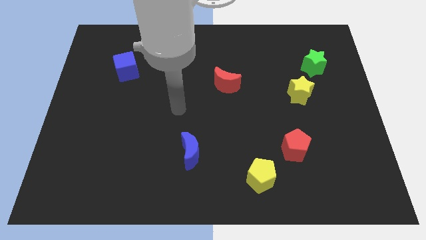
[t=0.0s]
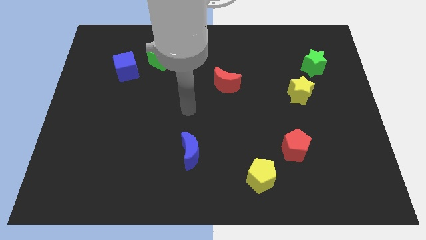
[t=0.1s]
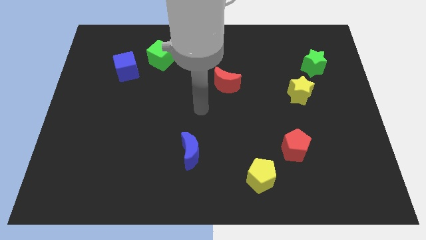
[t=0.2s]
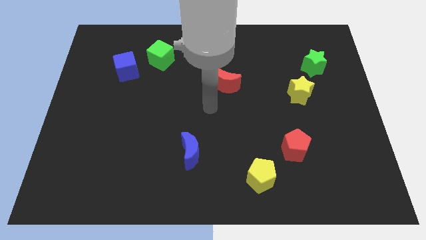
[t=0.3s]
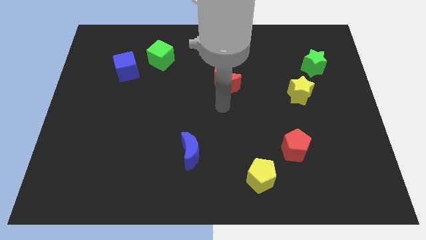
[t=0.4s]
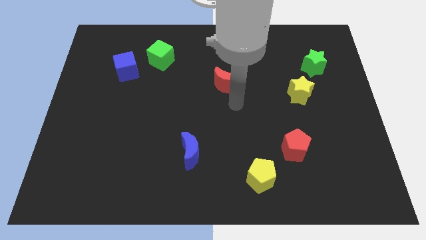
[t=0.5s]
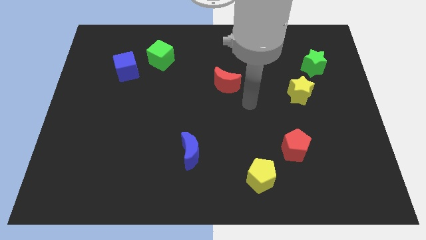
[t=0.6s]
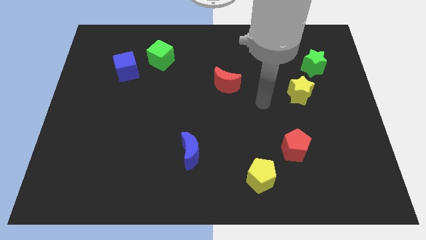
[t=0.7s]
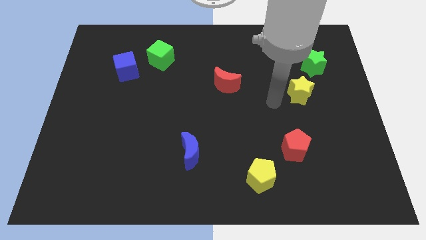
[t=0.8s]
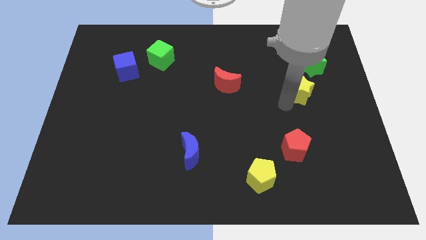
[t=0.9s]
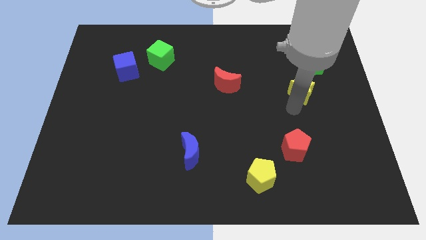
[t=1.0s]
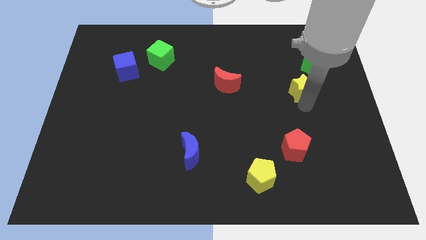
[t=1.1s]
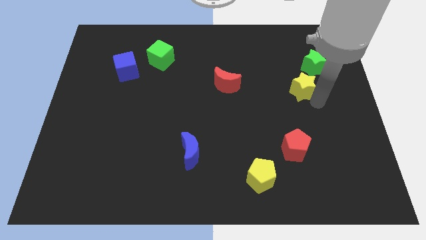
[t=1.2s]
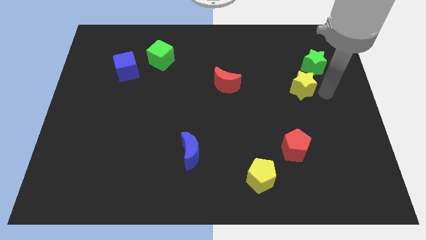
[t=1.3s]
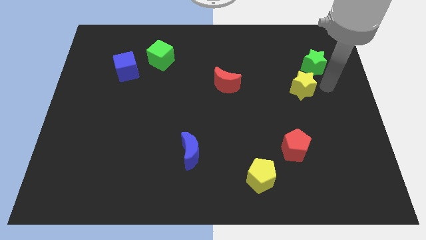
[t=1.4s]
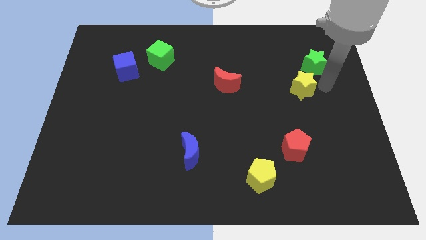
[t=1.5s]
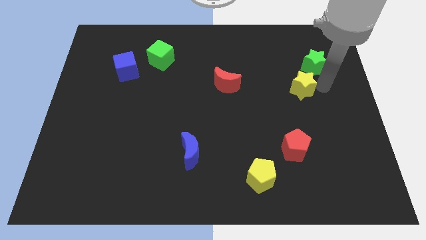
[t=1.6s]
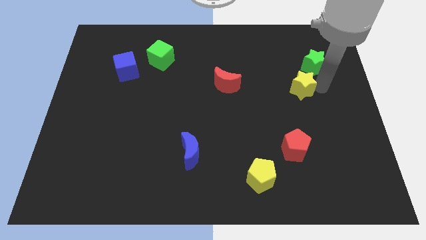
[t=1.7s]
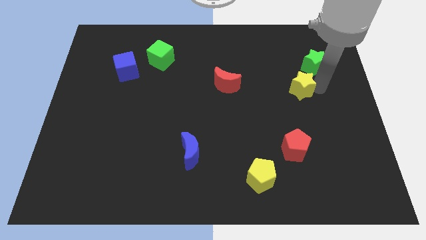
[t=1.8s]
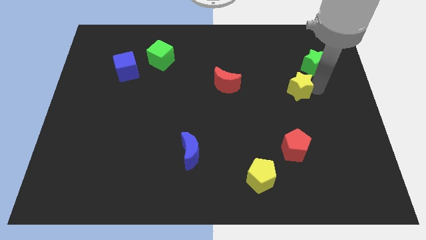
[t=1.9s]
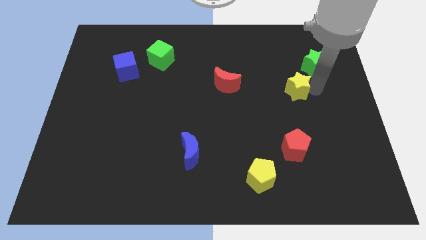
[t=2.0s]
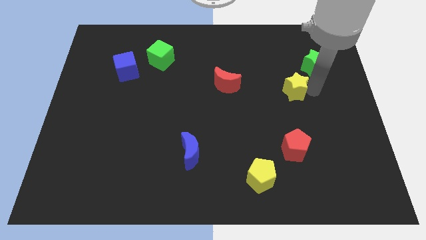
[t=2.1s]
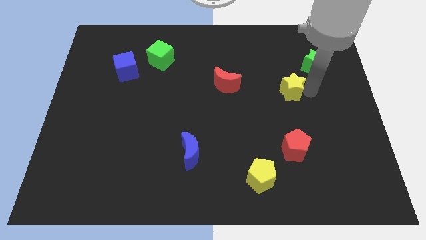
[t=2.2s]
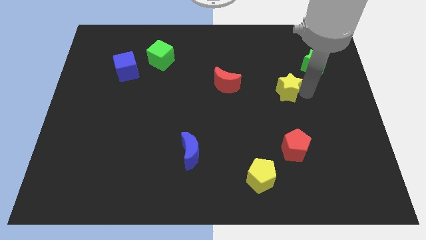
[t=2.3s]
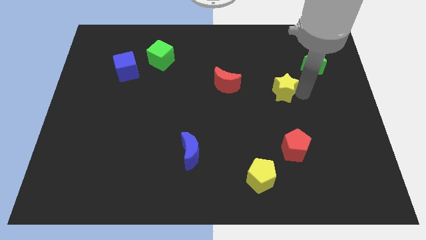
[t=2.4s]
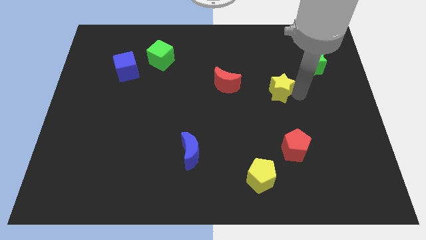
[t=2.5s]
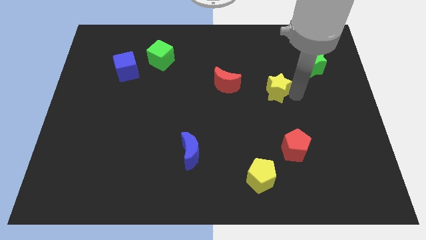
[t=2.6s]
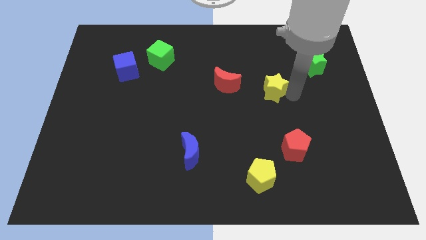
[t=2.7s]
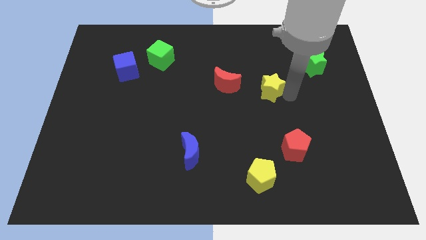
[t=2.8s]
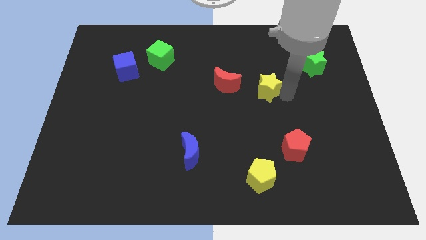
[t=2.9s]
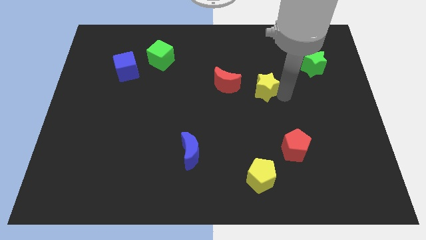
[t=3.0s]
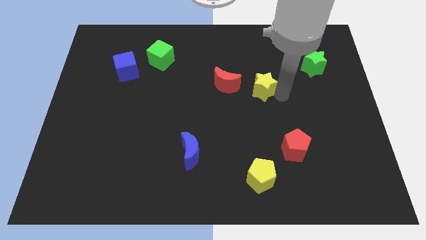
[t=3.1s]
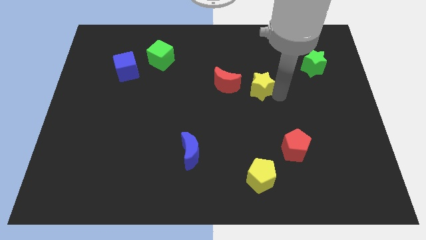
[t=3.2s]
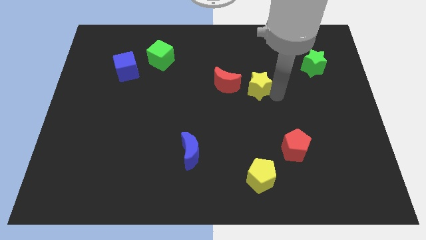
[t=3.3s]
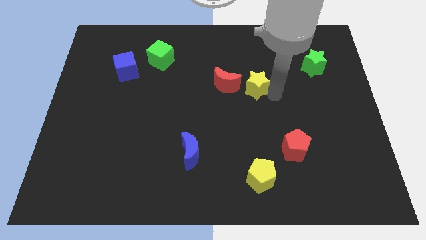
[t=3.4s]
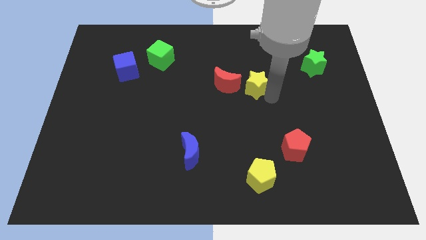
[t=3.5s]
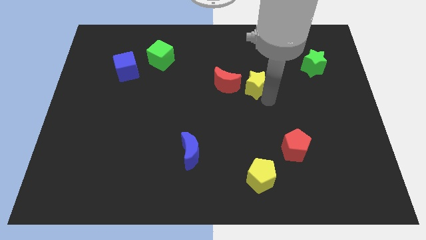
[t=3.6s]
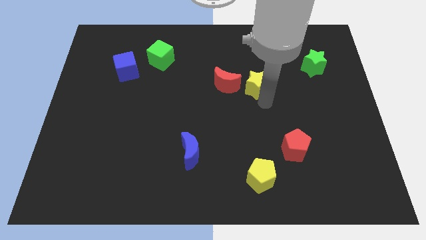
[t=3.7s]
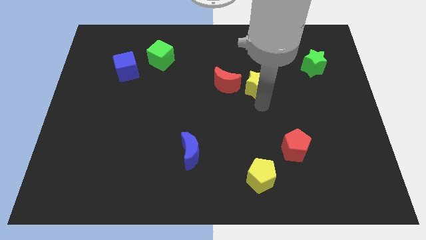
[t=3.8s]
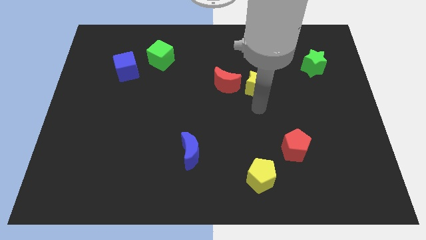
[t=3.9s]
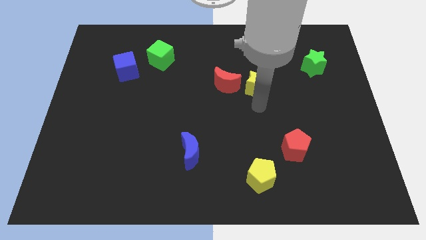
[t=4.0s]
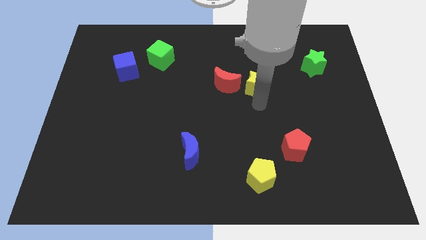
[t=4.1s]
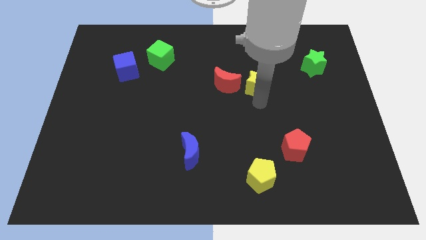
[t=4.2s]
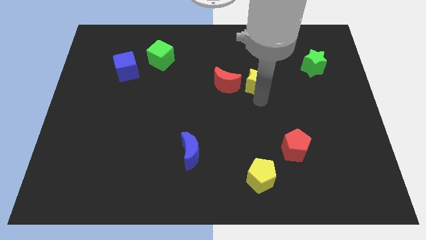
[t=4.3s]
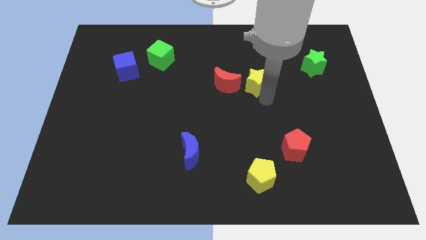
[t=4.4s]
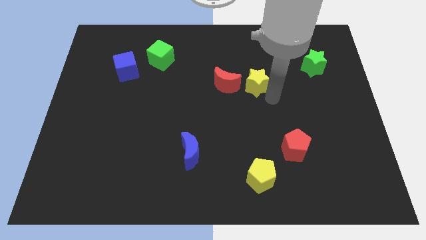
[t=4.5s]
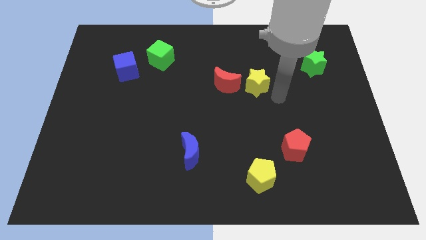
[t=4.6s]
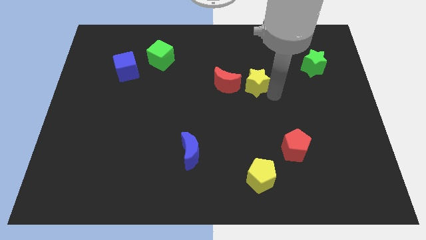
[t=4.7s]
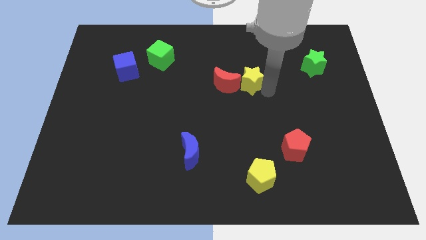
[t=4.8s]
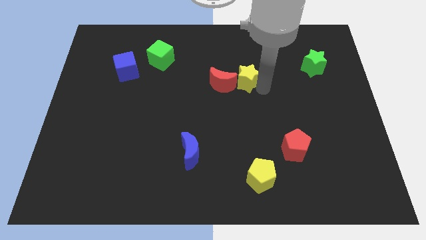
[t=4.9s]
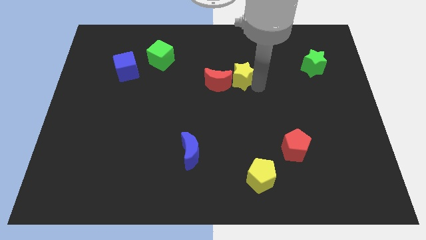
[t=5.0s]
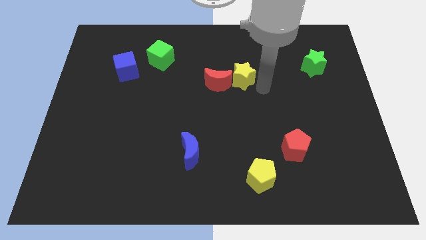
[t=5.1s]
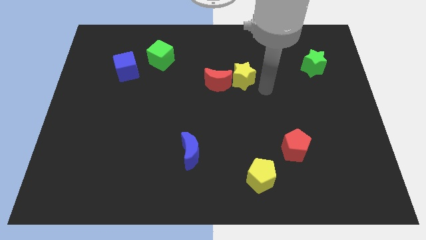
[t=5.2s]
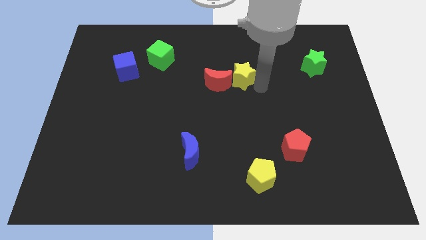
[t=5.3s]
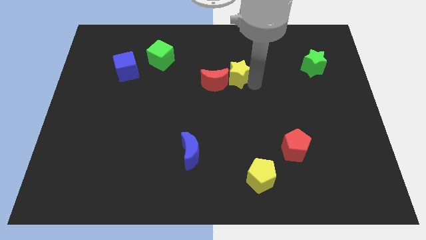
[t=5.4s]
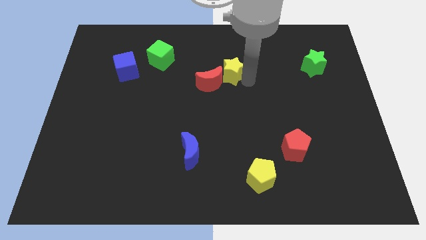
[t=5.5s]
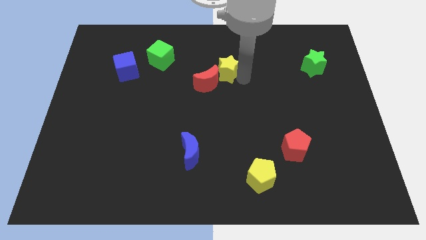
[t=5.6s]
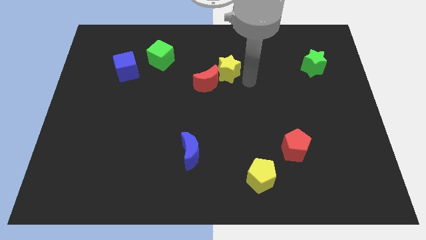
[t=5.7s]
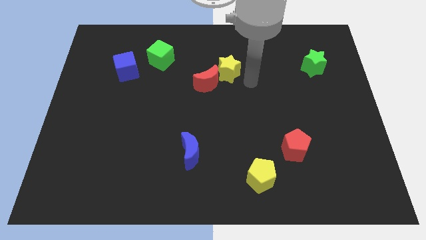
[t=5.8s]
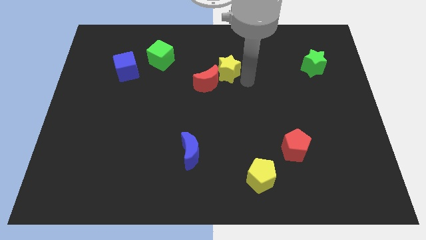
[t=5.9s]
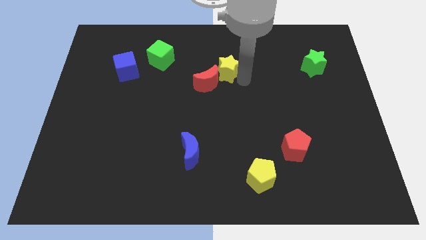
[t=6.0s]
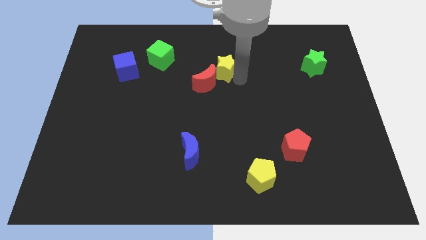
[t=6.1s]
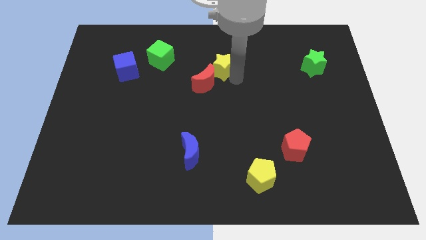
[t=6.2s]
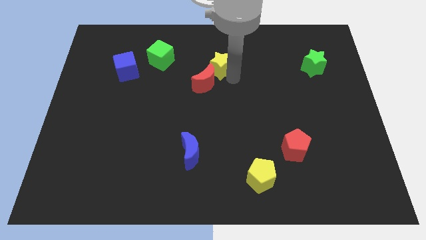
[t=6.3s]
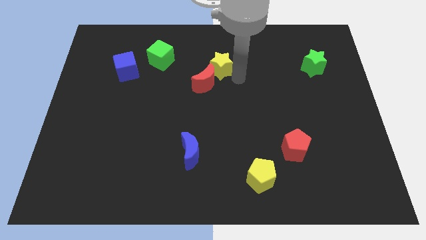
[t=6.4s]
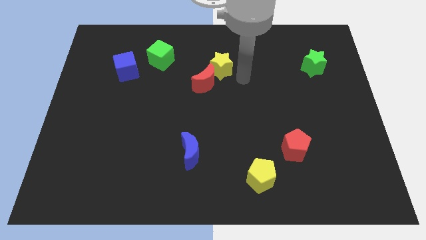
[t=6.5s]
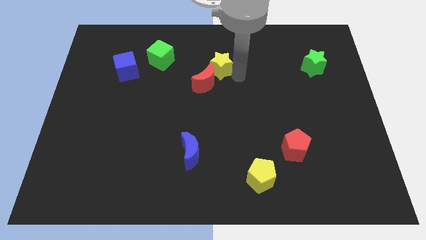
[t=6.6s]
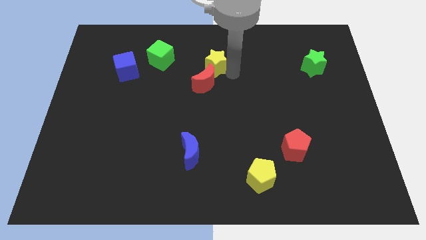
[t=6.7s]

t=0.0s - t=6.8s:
push the yellow star just right of the green cube

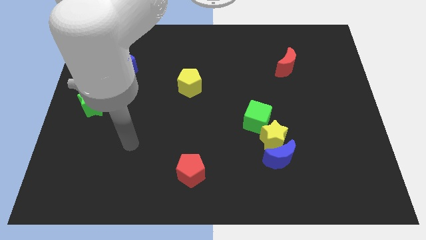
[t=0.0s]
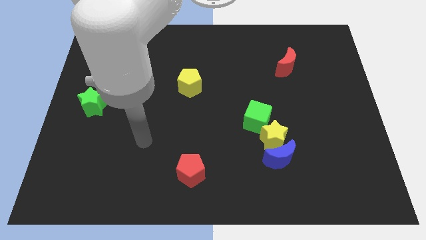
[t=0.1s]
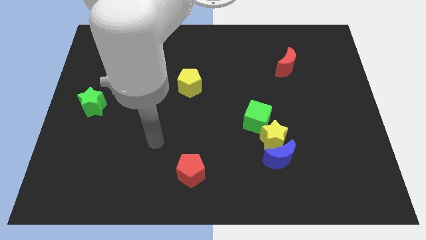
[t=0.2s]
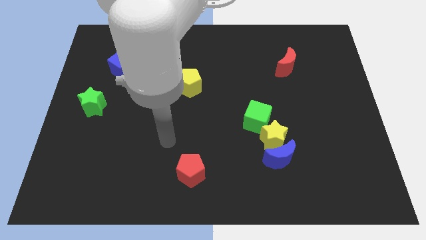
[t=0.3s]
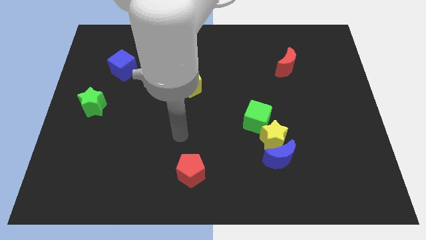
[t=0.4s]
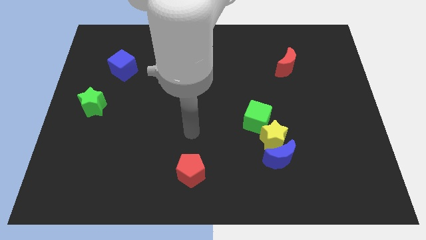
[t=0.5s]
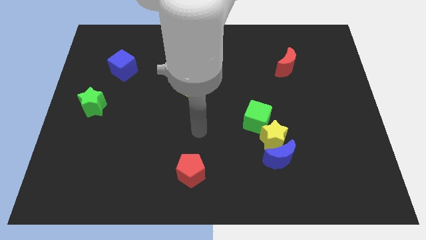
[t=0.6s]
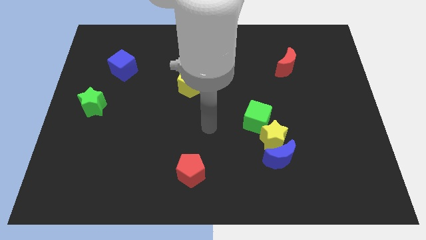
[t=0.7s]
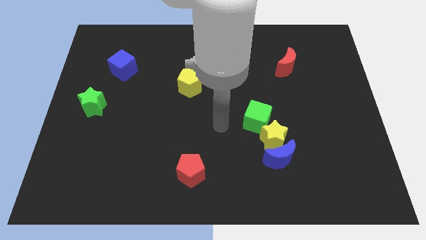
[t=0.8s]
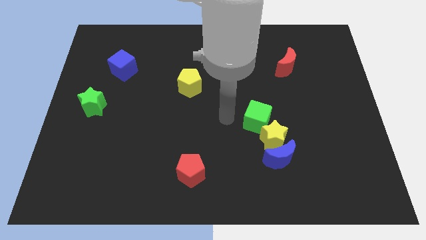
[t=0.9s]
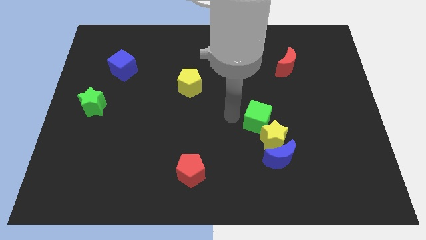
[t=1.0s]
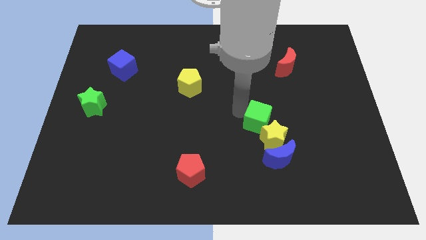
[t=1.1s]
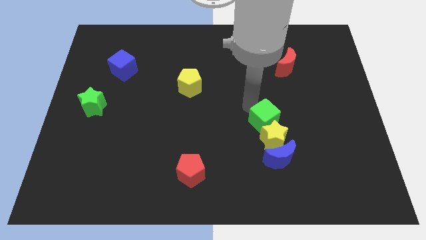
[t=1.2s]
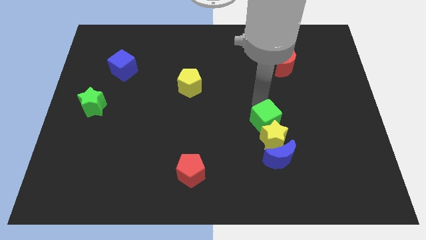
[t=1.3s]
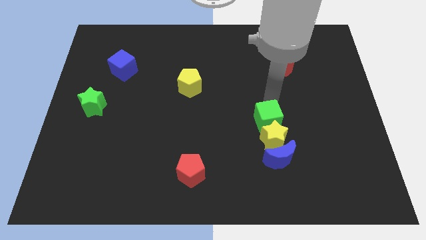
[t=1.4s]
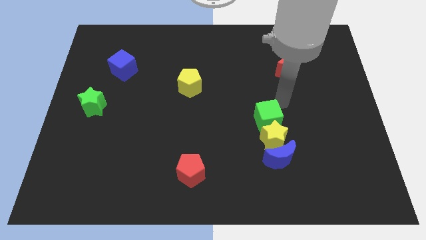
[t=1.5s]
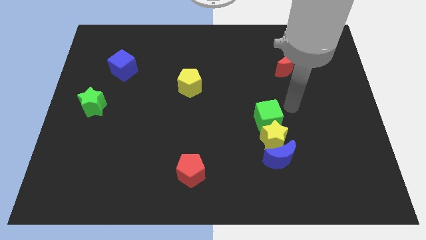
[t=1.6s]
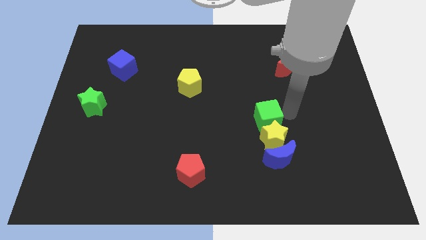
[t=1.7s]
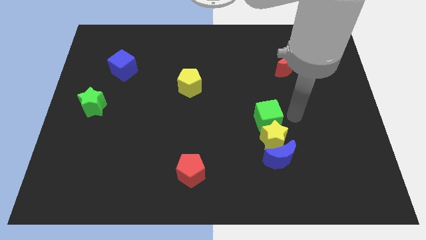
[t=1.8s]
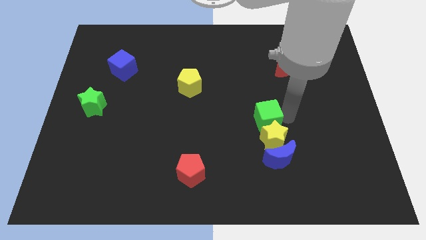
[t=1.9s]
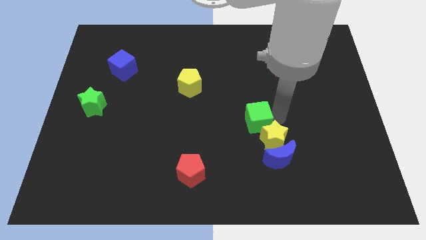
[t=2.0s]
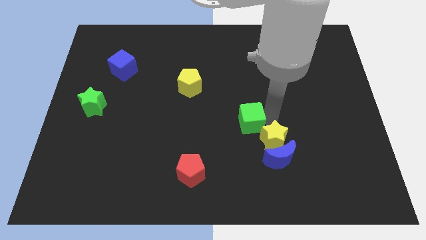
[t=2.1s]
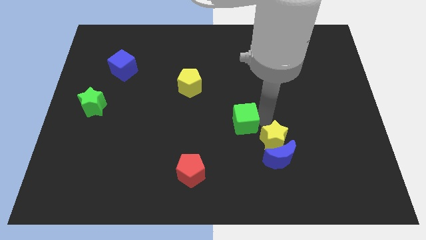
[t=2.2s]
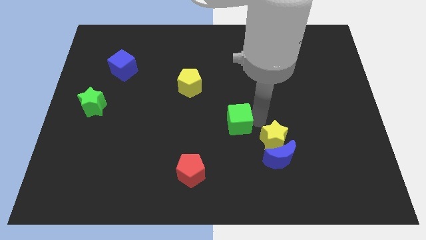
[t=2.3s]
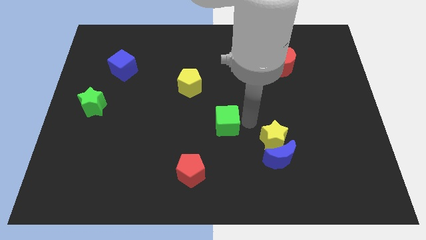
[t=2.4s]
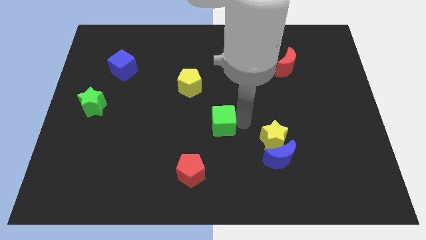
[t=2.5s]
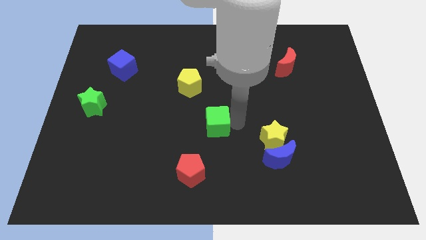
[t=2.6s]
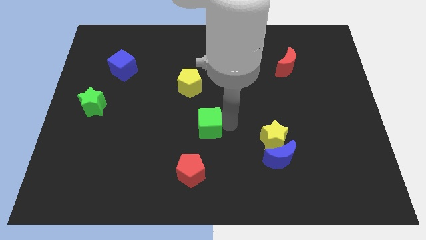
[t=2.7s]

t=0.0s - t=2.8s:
move the green cube to the bottom side of the yellow pentagon
